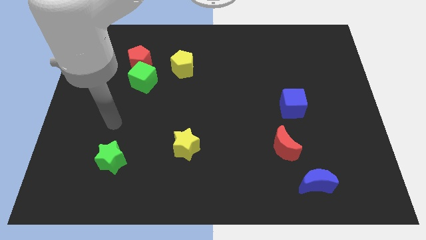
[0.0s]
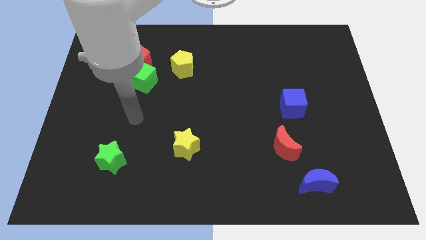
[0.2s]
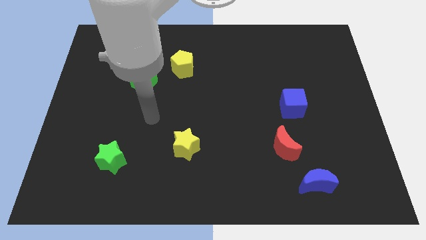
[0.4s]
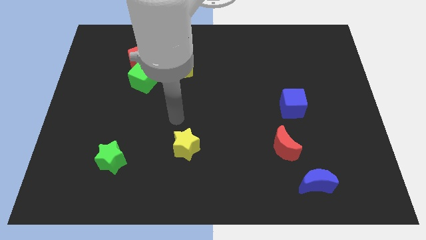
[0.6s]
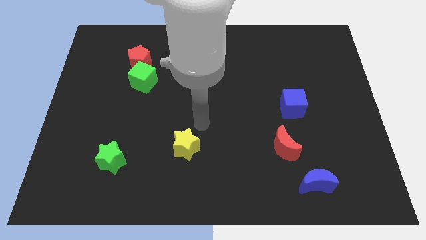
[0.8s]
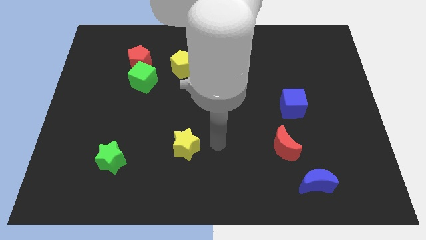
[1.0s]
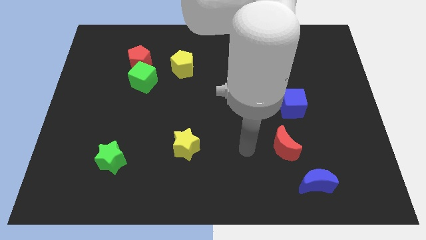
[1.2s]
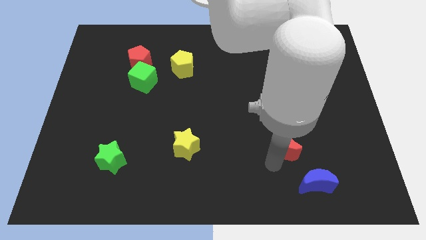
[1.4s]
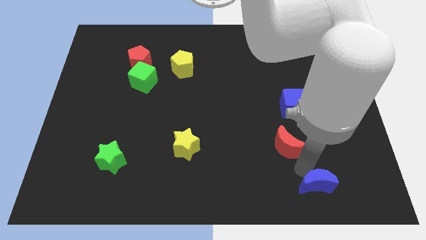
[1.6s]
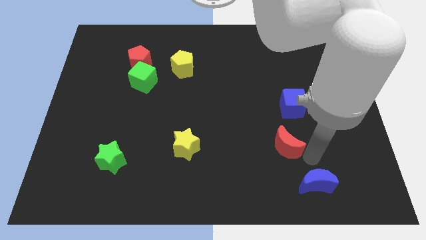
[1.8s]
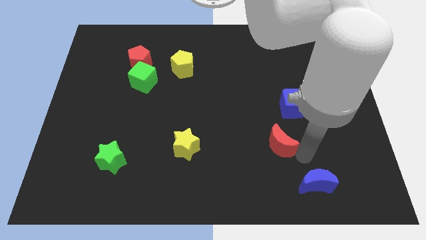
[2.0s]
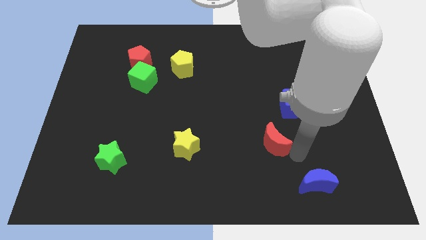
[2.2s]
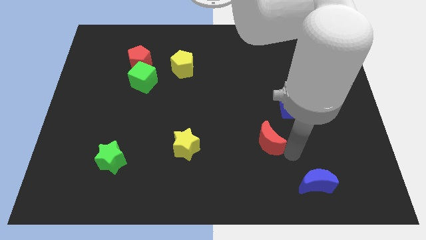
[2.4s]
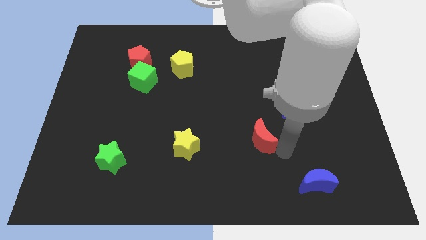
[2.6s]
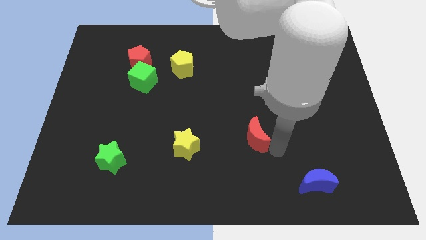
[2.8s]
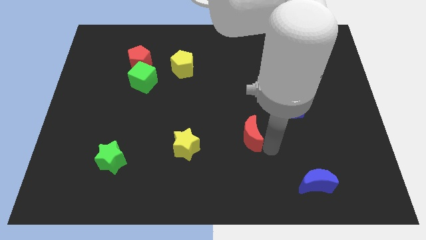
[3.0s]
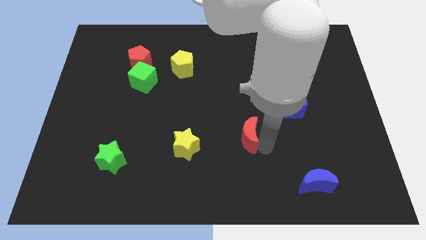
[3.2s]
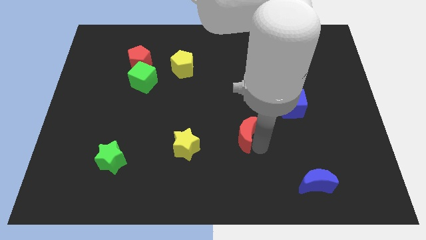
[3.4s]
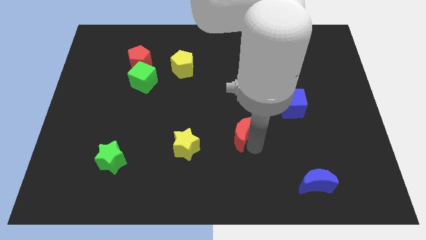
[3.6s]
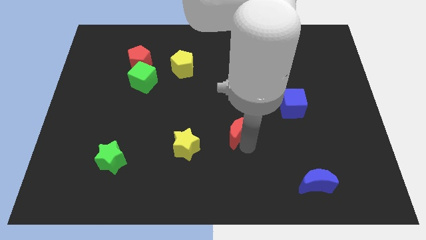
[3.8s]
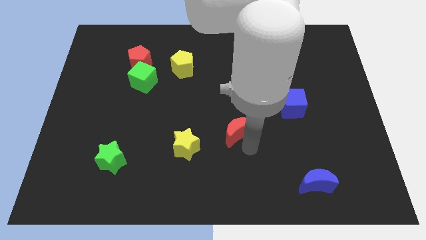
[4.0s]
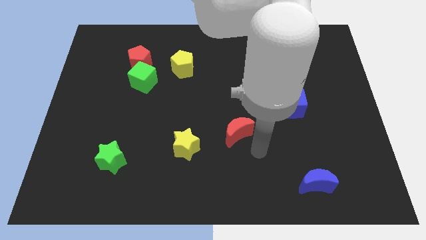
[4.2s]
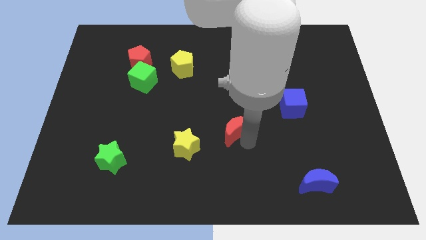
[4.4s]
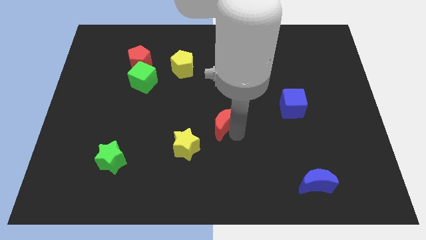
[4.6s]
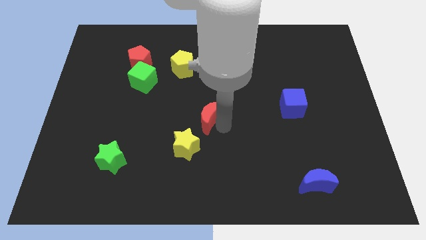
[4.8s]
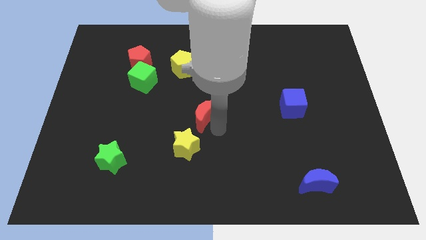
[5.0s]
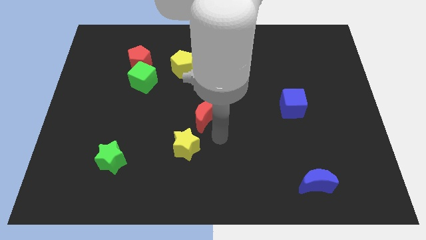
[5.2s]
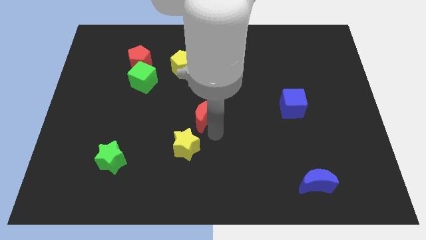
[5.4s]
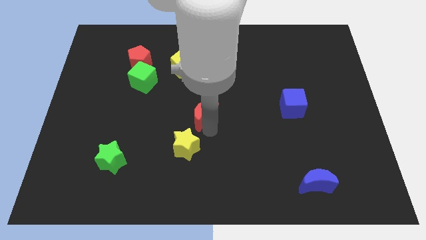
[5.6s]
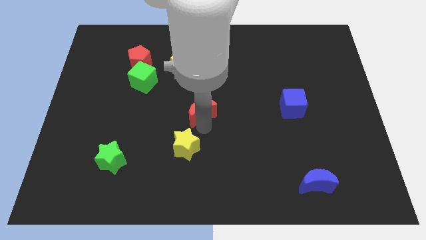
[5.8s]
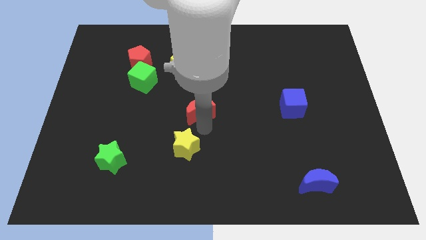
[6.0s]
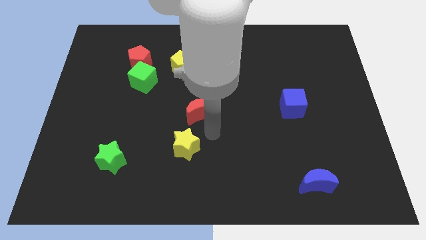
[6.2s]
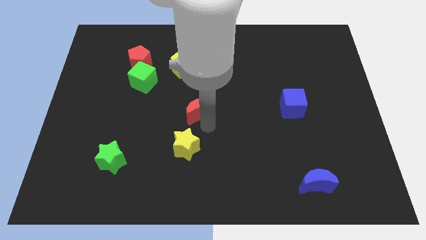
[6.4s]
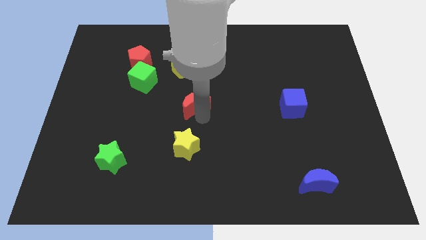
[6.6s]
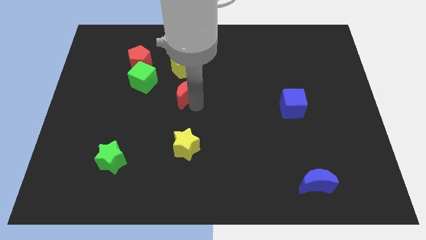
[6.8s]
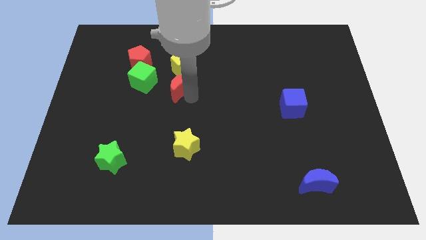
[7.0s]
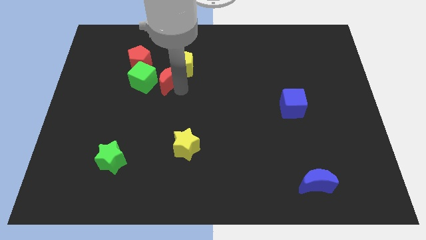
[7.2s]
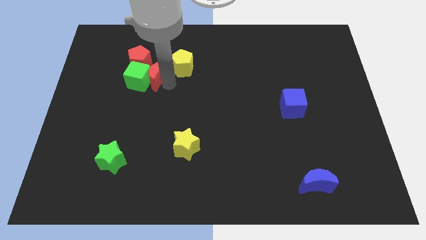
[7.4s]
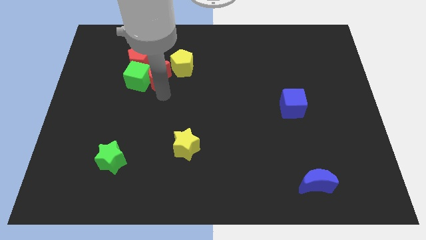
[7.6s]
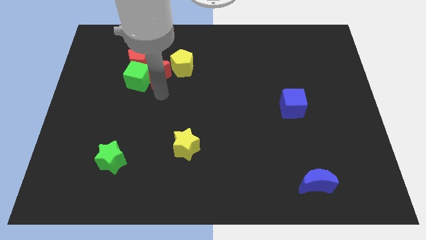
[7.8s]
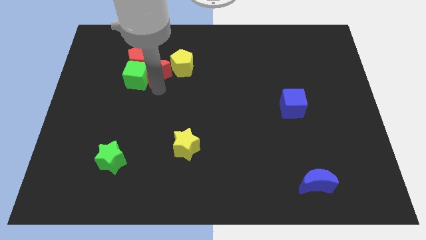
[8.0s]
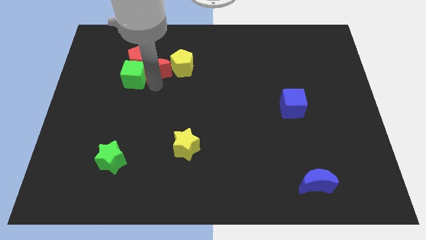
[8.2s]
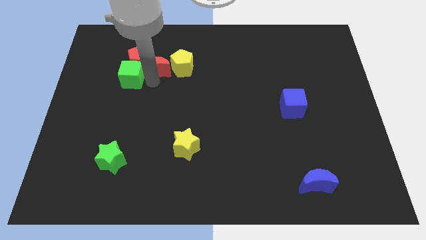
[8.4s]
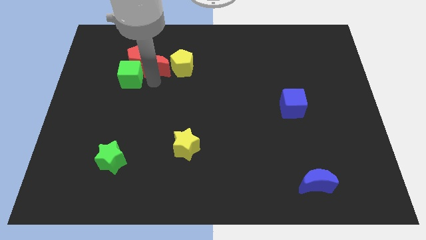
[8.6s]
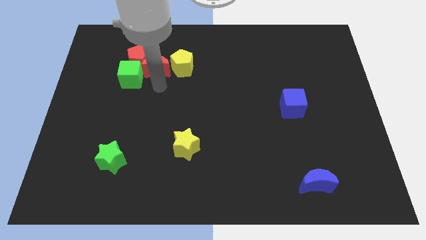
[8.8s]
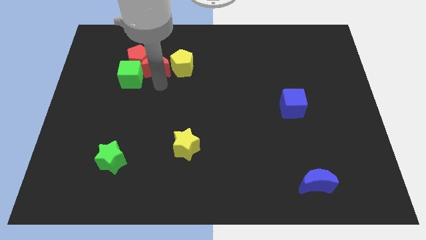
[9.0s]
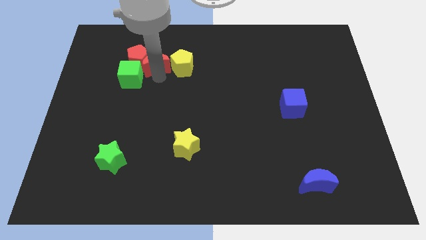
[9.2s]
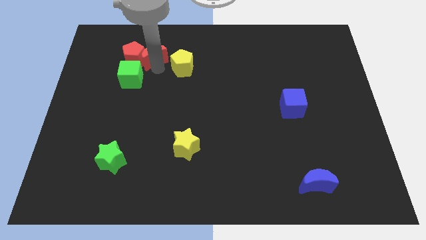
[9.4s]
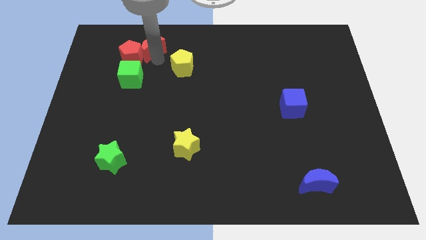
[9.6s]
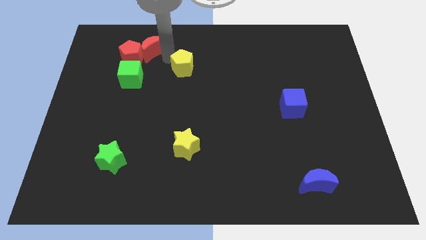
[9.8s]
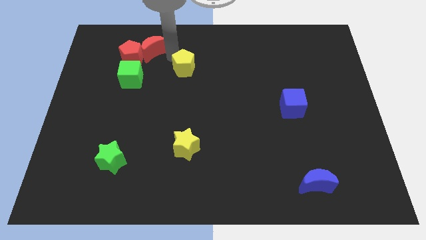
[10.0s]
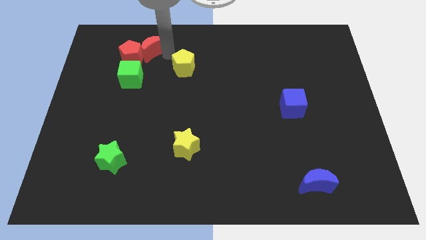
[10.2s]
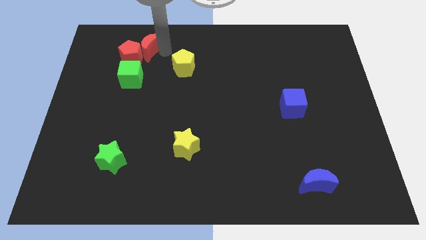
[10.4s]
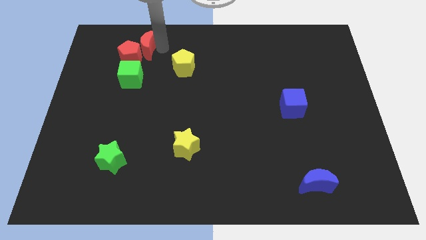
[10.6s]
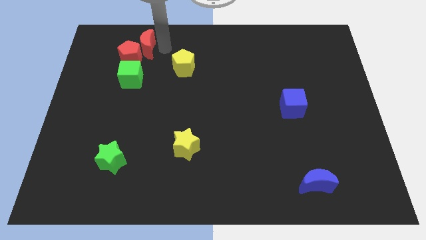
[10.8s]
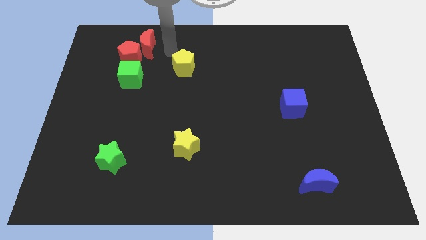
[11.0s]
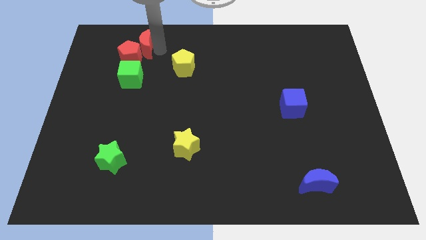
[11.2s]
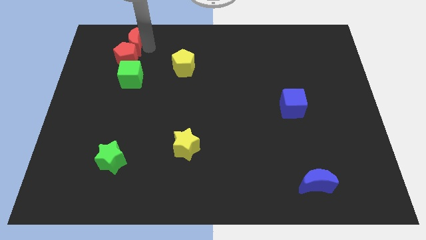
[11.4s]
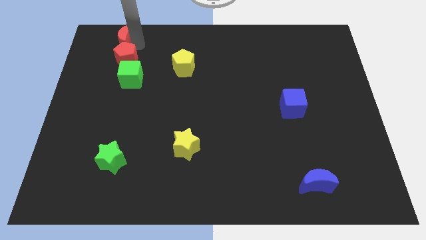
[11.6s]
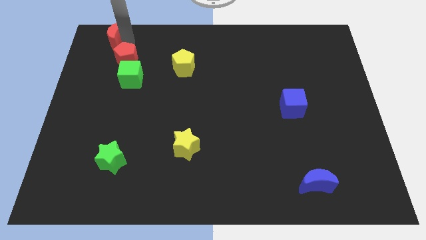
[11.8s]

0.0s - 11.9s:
put the red moon to the upper left corner
